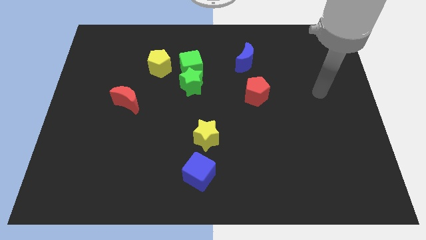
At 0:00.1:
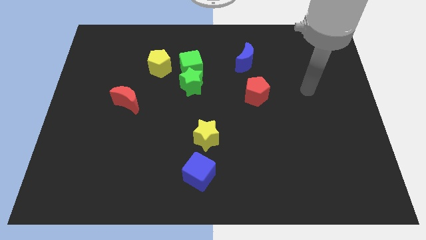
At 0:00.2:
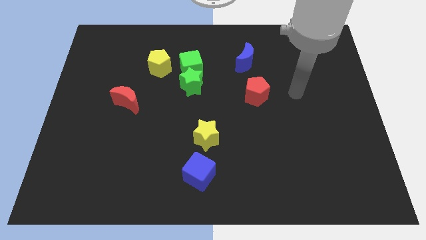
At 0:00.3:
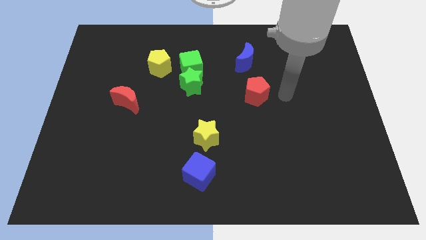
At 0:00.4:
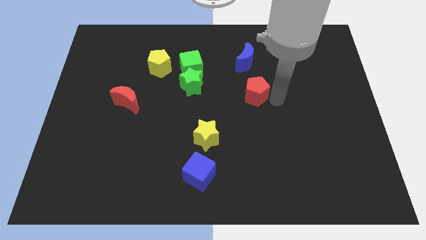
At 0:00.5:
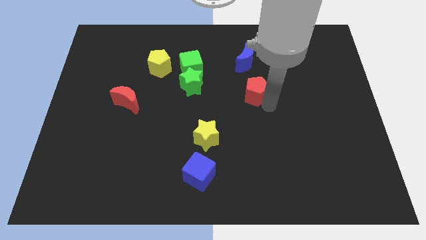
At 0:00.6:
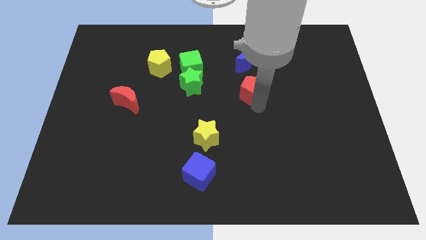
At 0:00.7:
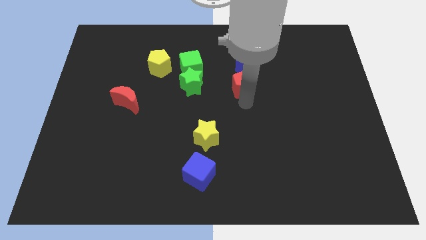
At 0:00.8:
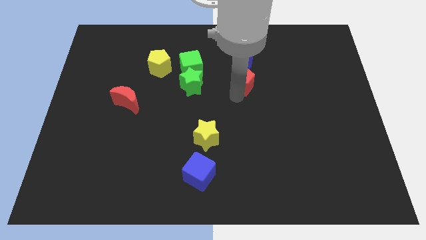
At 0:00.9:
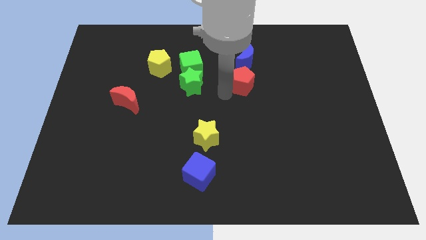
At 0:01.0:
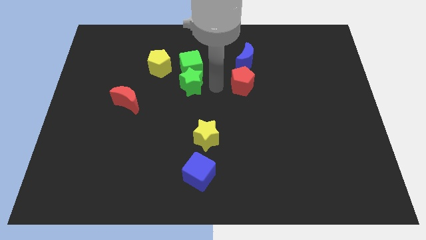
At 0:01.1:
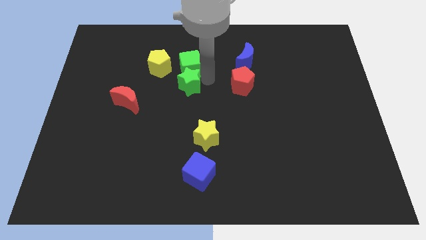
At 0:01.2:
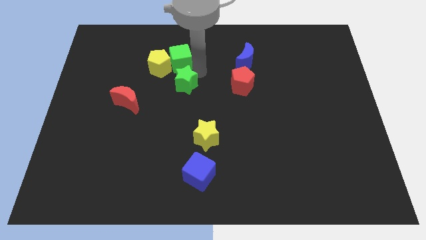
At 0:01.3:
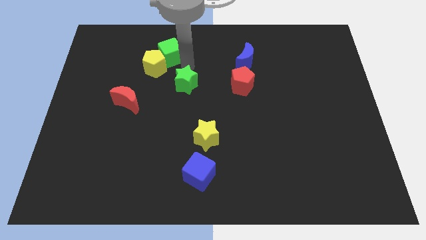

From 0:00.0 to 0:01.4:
pull the green star apart from the green cube

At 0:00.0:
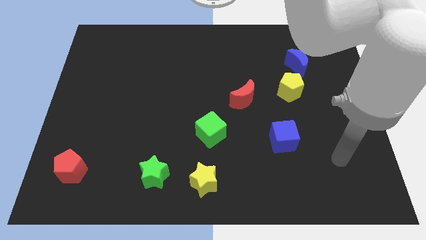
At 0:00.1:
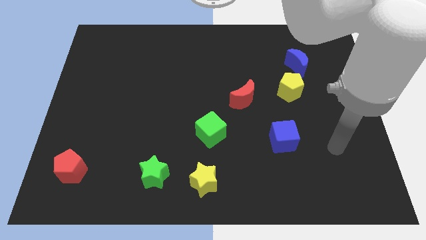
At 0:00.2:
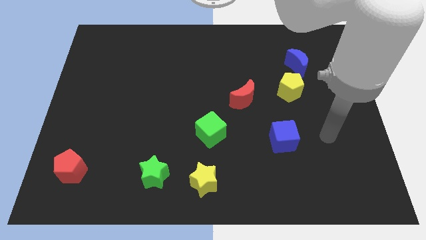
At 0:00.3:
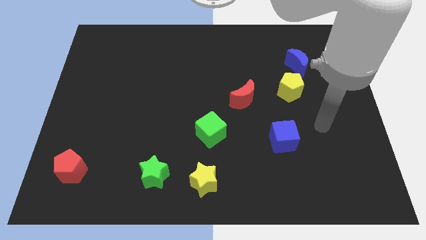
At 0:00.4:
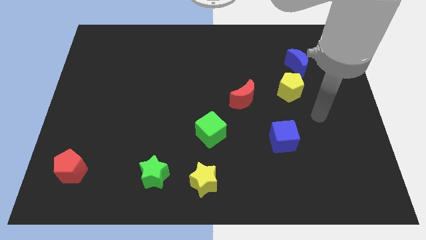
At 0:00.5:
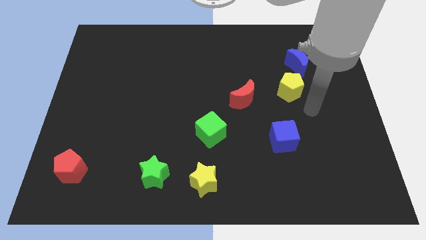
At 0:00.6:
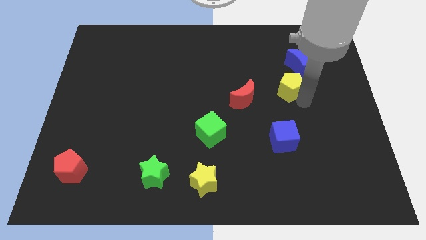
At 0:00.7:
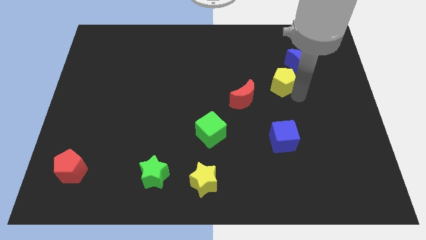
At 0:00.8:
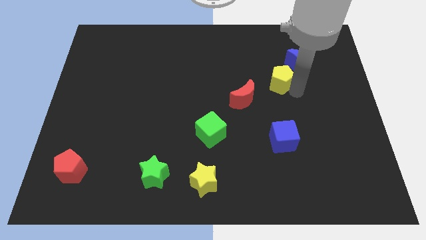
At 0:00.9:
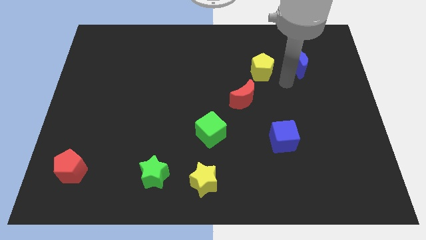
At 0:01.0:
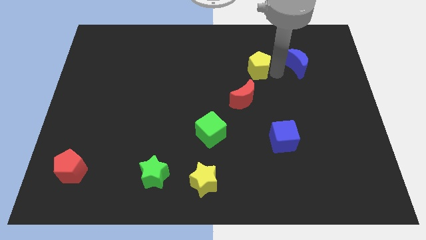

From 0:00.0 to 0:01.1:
separate the blue moon from the yellow pentagon

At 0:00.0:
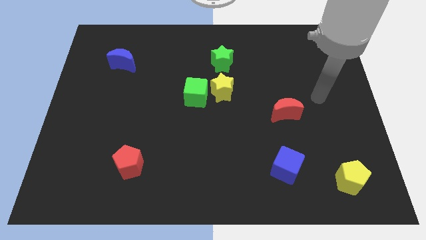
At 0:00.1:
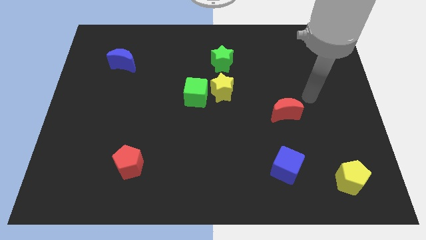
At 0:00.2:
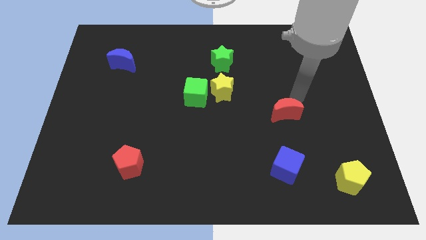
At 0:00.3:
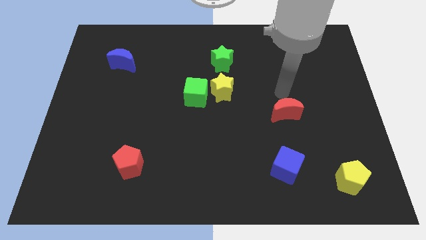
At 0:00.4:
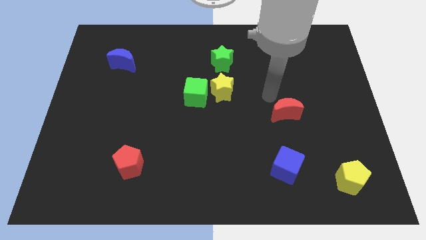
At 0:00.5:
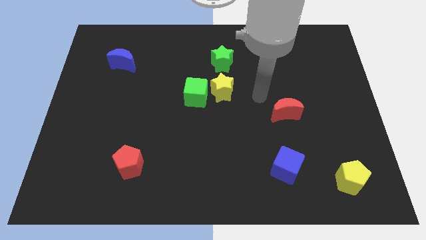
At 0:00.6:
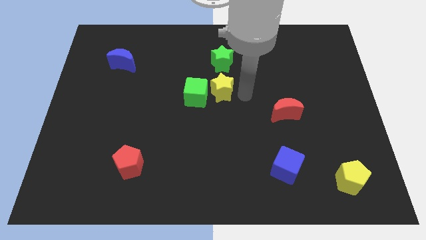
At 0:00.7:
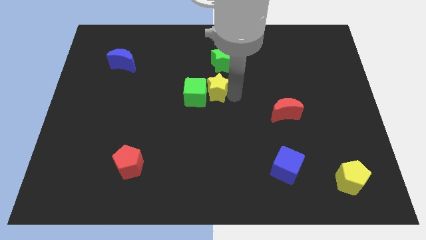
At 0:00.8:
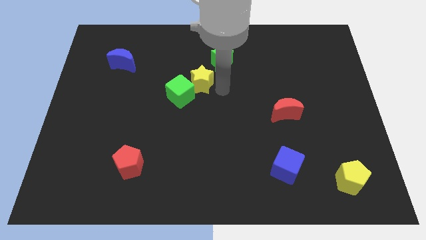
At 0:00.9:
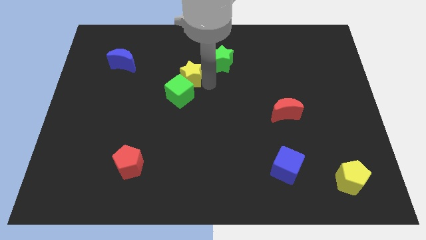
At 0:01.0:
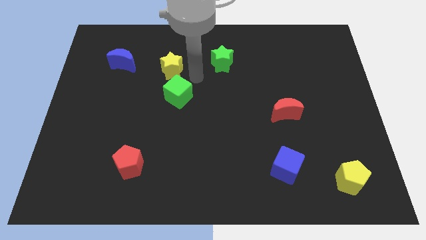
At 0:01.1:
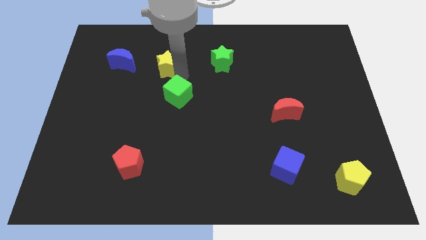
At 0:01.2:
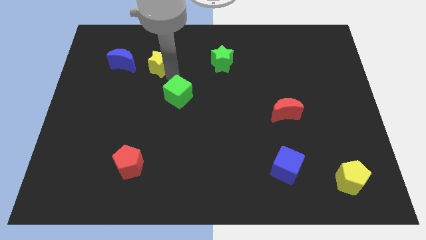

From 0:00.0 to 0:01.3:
separate the green cube from the yellow star

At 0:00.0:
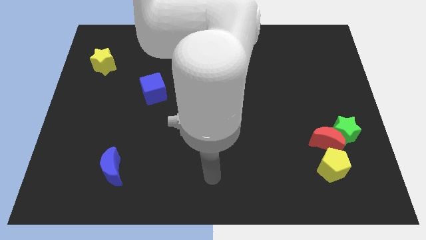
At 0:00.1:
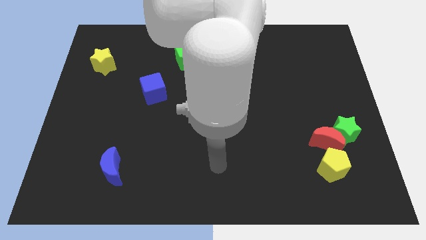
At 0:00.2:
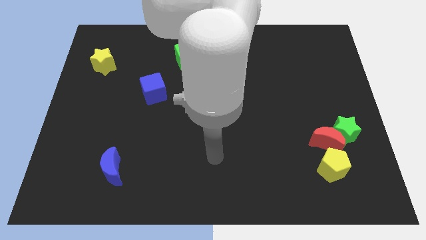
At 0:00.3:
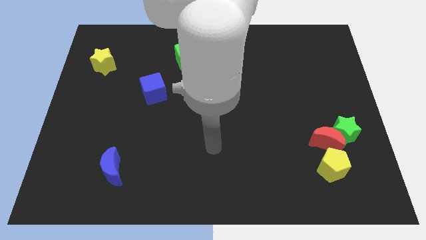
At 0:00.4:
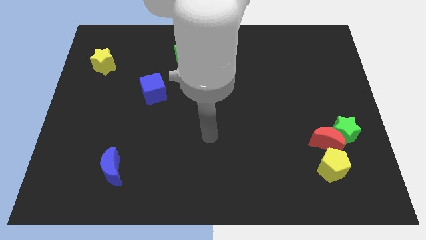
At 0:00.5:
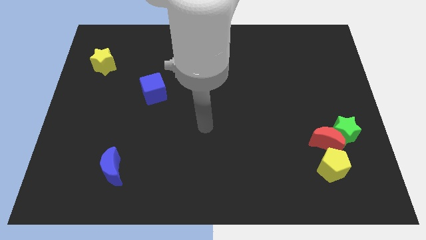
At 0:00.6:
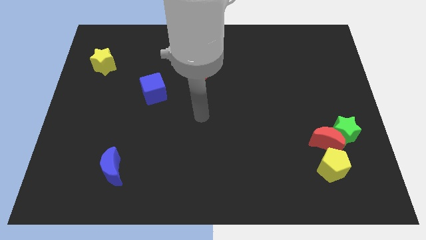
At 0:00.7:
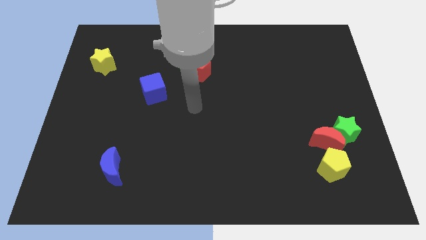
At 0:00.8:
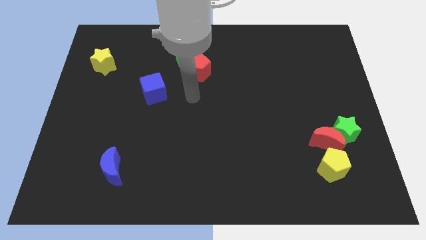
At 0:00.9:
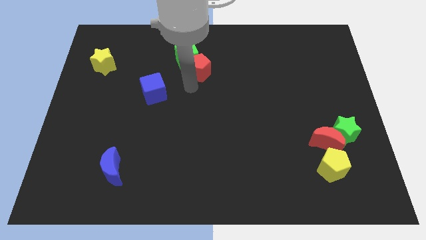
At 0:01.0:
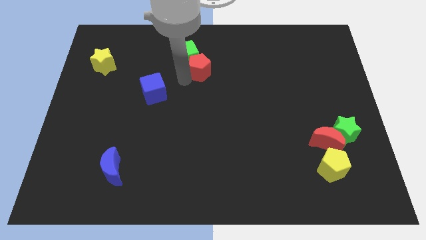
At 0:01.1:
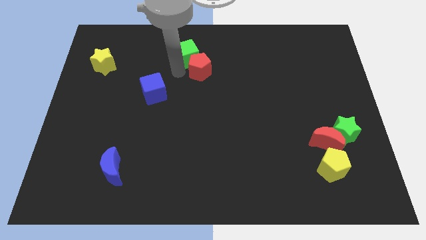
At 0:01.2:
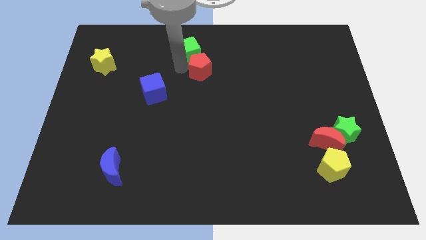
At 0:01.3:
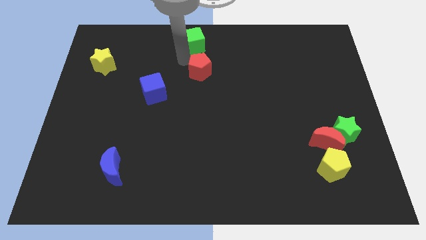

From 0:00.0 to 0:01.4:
move the red pentagon away from the green cube

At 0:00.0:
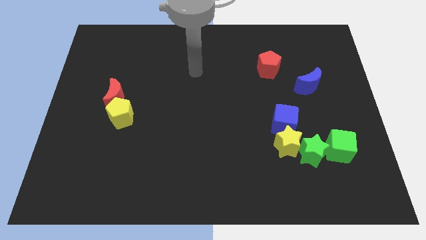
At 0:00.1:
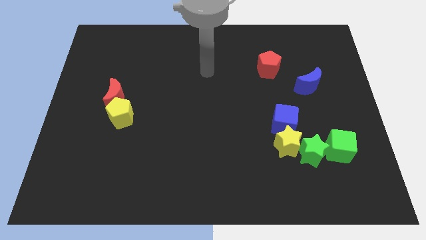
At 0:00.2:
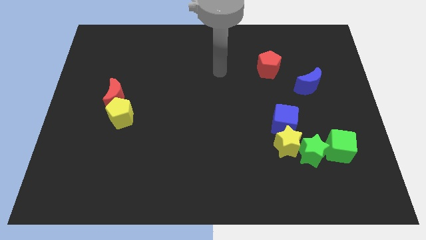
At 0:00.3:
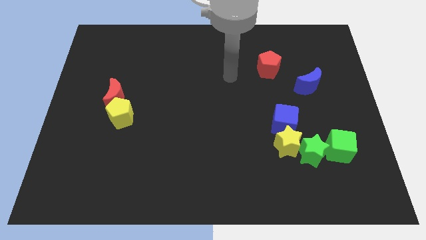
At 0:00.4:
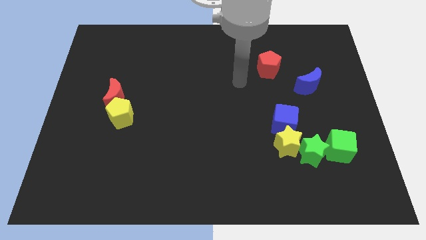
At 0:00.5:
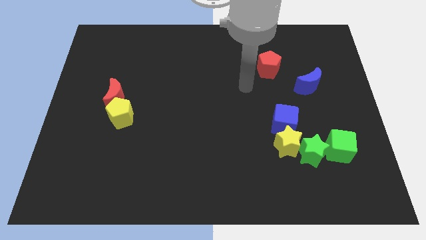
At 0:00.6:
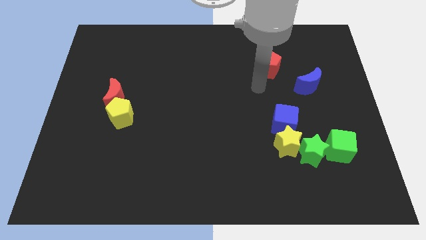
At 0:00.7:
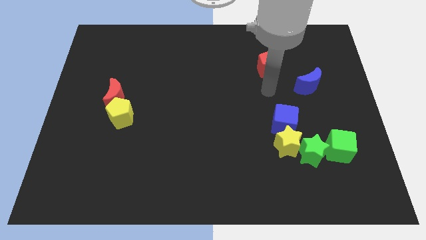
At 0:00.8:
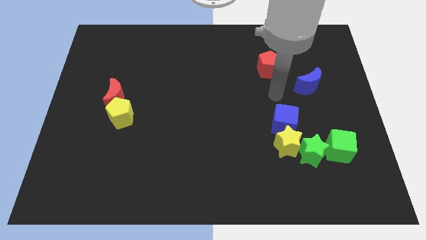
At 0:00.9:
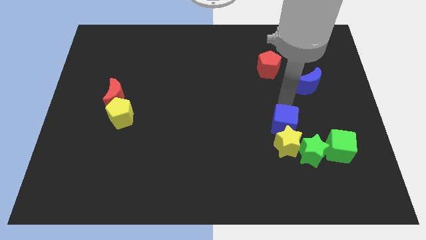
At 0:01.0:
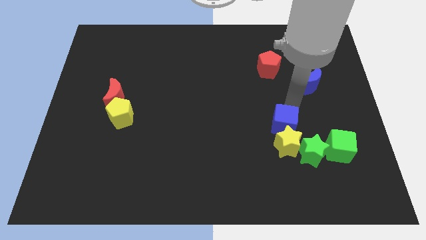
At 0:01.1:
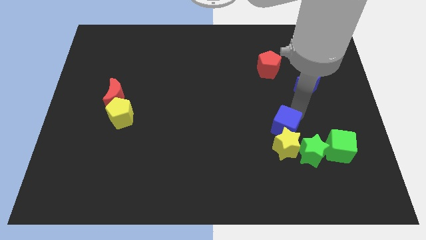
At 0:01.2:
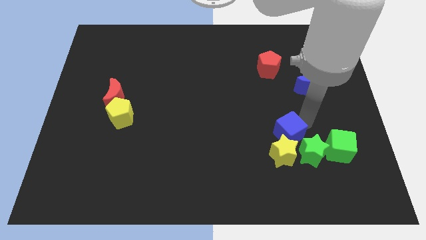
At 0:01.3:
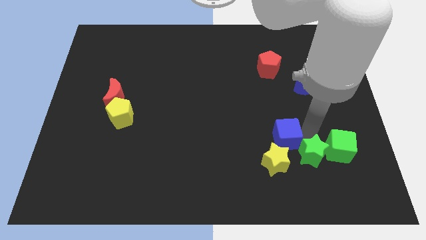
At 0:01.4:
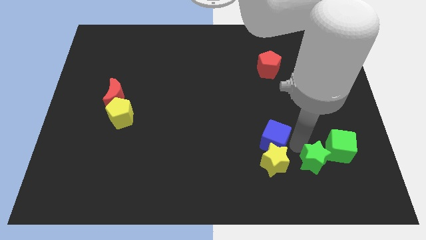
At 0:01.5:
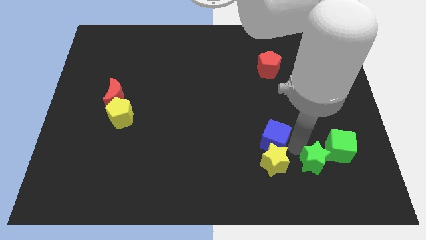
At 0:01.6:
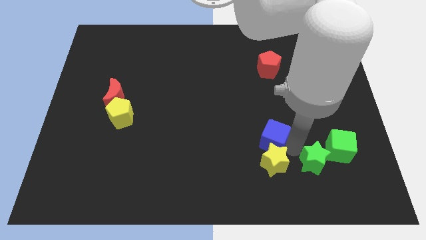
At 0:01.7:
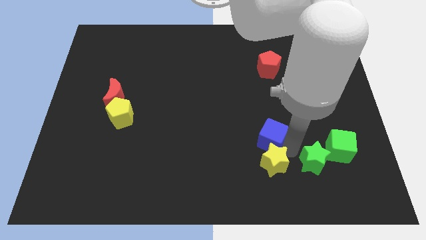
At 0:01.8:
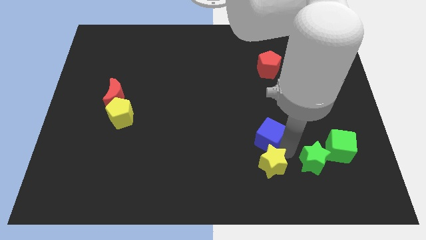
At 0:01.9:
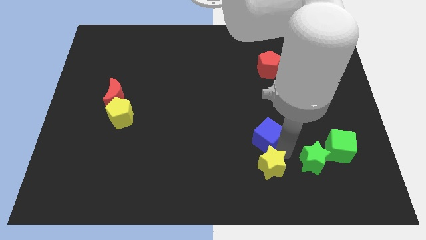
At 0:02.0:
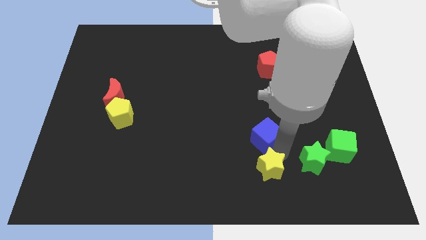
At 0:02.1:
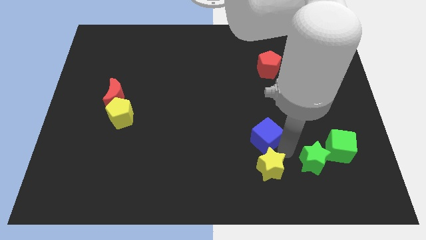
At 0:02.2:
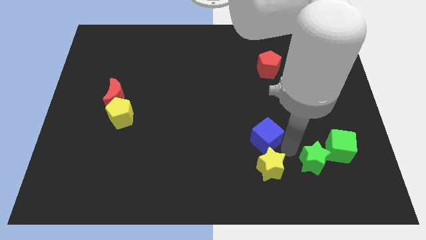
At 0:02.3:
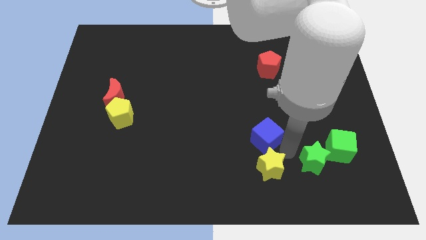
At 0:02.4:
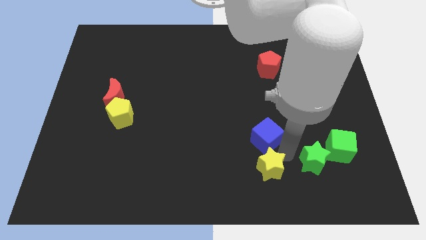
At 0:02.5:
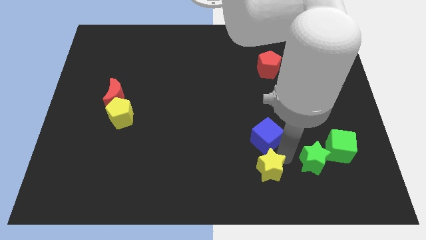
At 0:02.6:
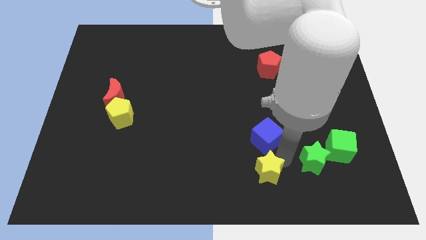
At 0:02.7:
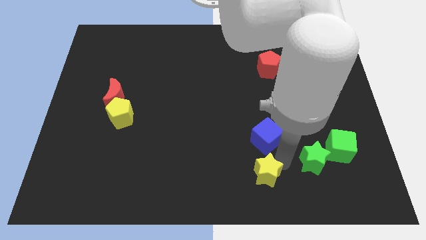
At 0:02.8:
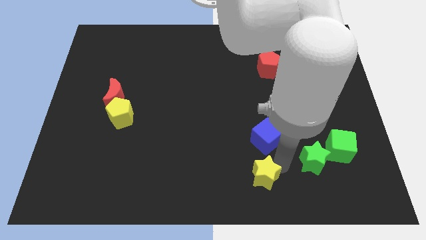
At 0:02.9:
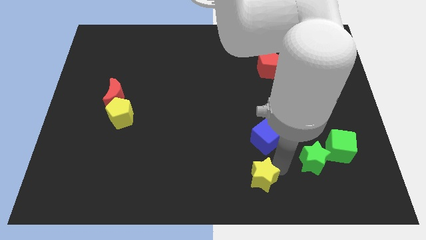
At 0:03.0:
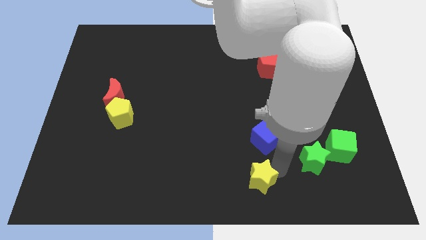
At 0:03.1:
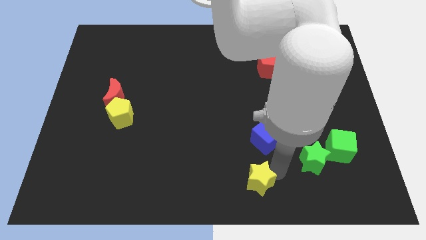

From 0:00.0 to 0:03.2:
pull the yellow star apart from the green star and blue cube

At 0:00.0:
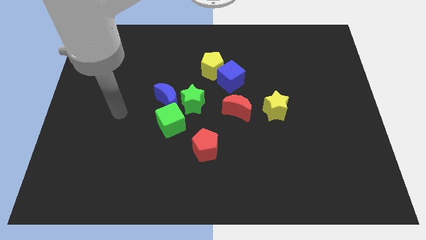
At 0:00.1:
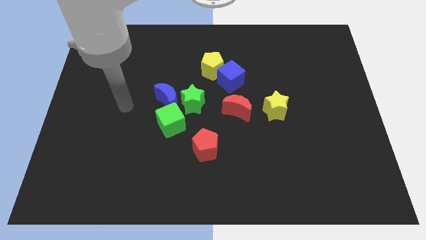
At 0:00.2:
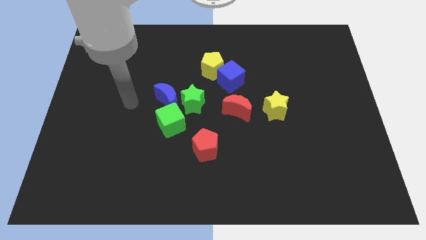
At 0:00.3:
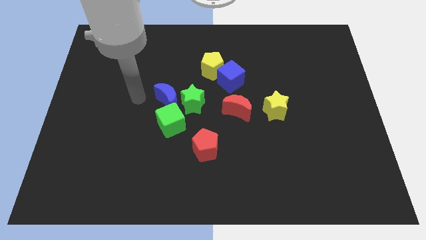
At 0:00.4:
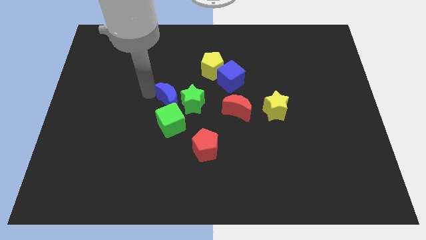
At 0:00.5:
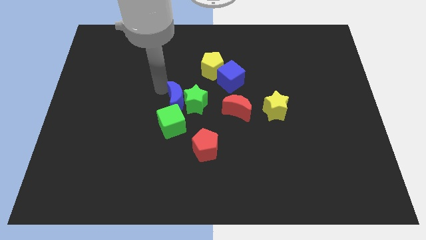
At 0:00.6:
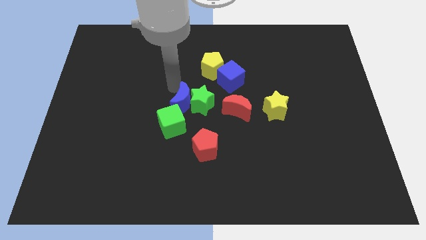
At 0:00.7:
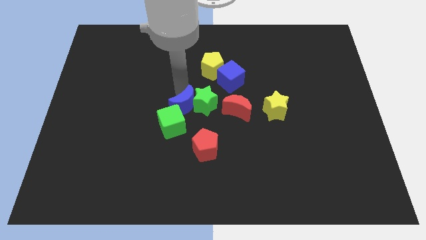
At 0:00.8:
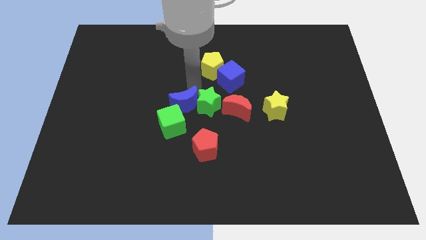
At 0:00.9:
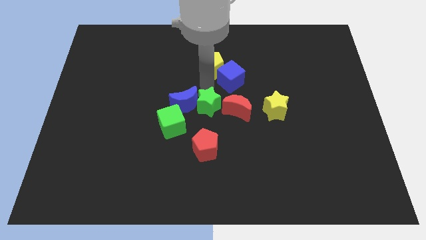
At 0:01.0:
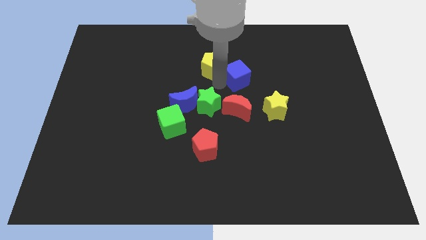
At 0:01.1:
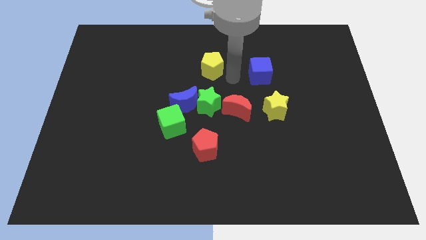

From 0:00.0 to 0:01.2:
pull the yellow pentagon apart from the blue cube
